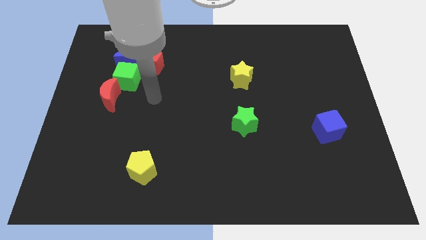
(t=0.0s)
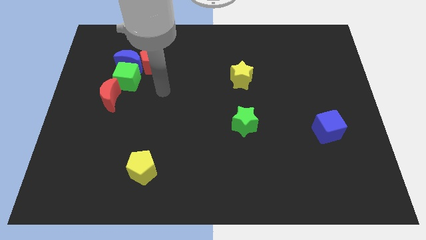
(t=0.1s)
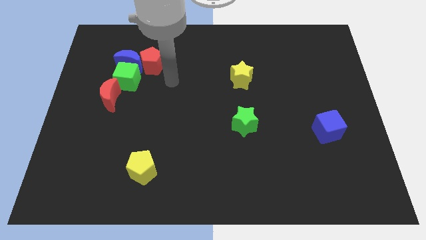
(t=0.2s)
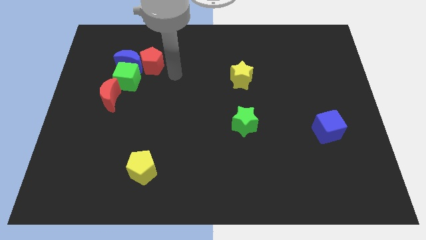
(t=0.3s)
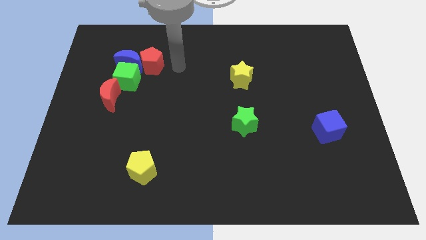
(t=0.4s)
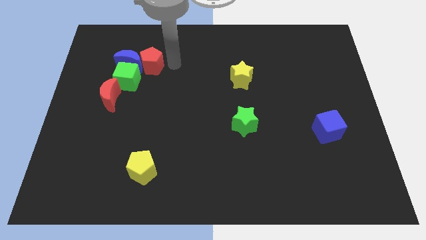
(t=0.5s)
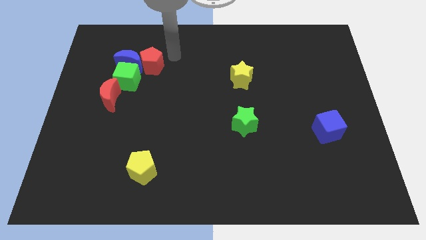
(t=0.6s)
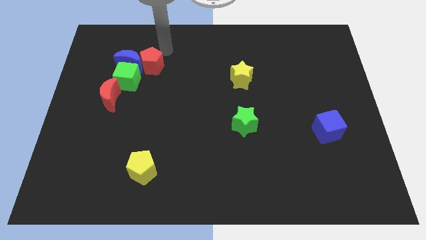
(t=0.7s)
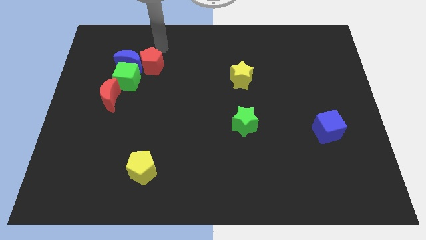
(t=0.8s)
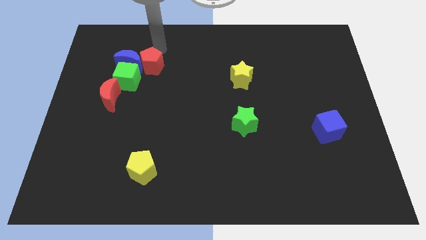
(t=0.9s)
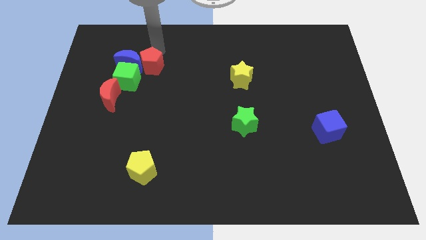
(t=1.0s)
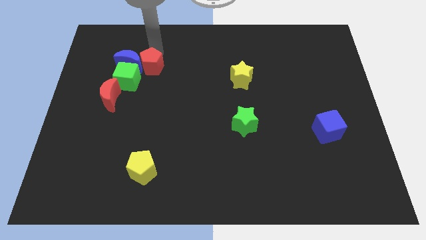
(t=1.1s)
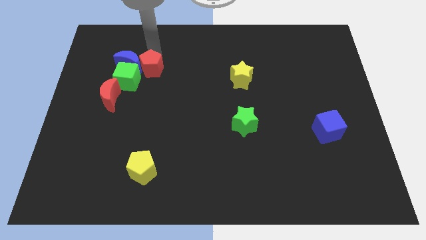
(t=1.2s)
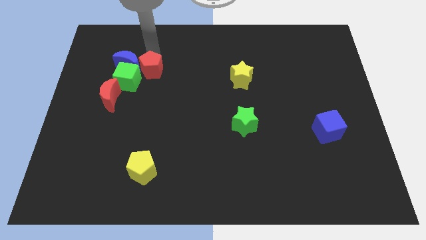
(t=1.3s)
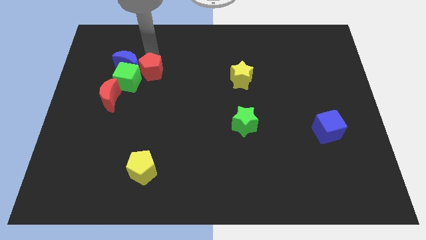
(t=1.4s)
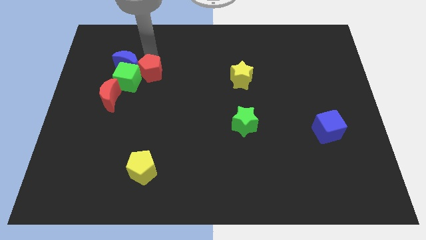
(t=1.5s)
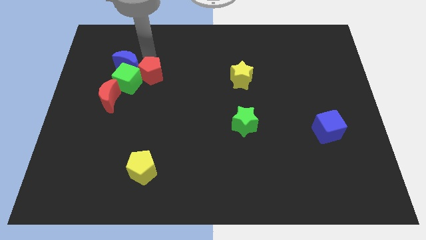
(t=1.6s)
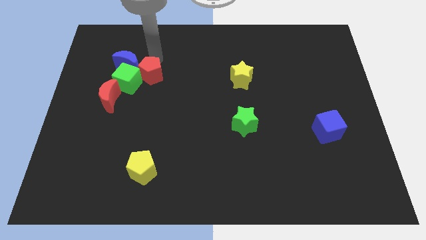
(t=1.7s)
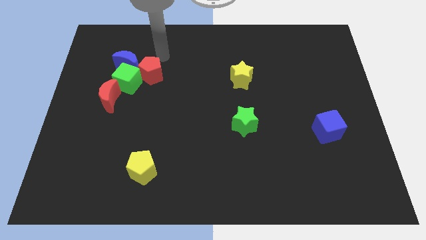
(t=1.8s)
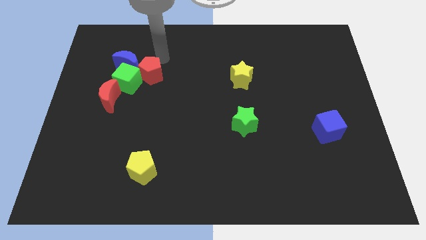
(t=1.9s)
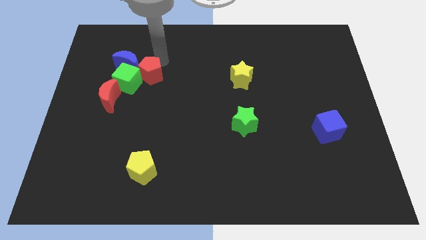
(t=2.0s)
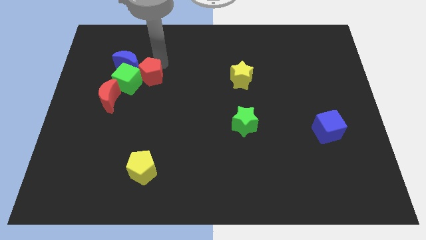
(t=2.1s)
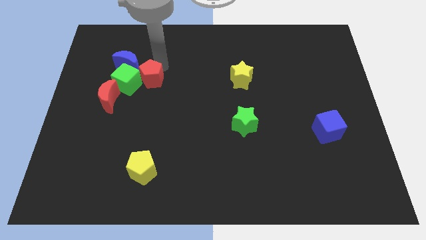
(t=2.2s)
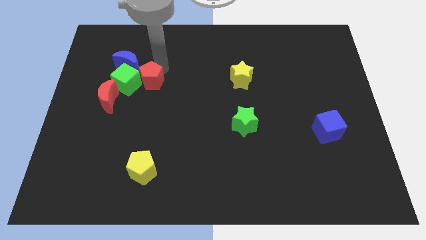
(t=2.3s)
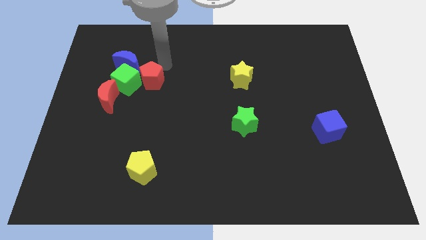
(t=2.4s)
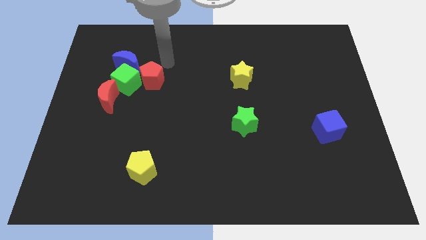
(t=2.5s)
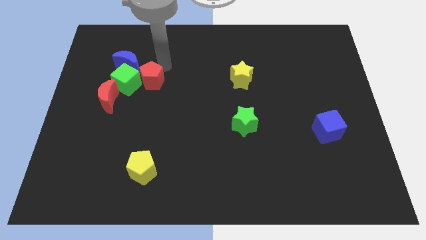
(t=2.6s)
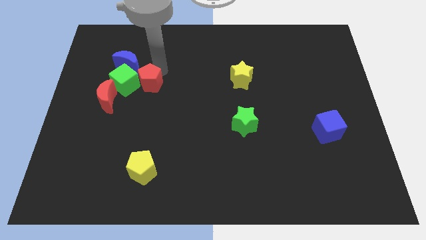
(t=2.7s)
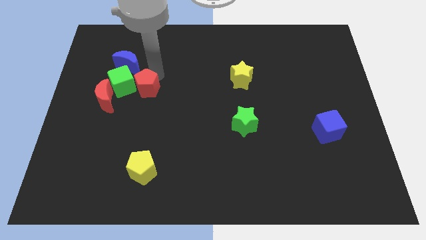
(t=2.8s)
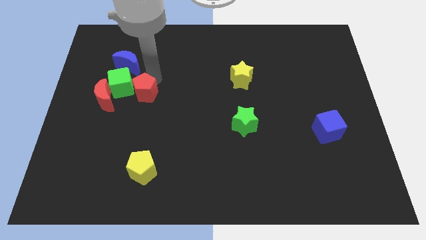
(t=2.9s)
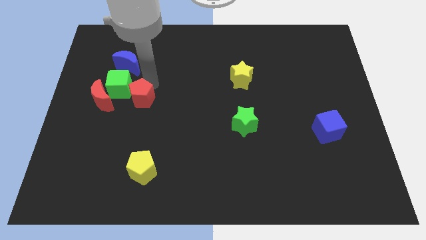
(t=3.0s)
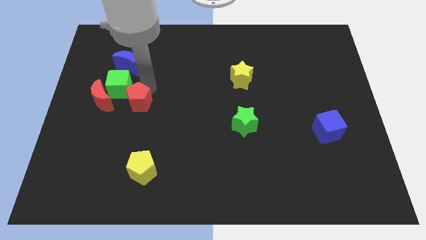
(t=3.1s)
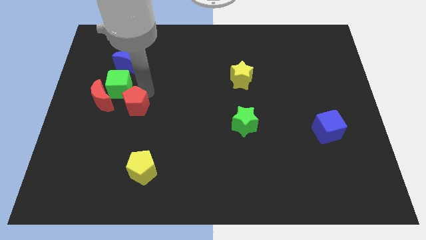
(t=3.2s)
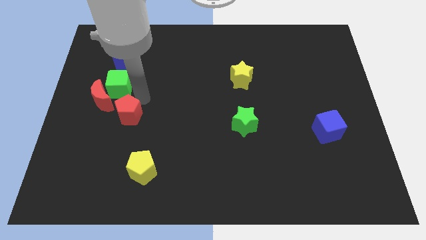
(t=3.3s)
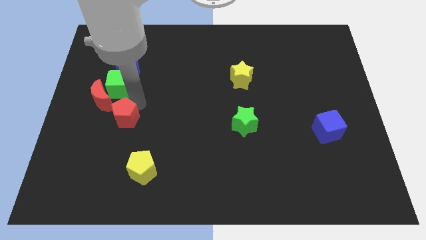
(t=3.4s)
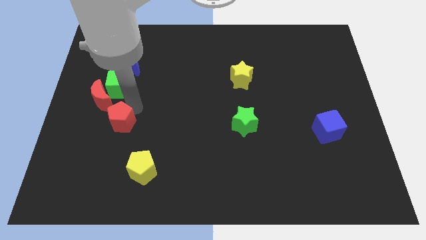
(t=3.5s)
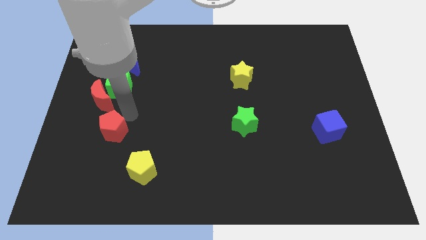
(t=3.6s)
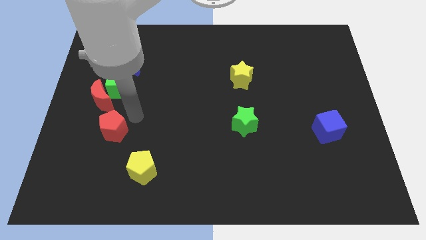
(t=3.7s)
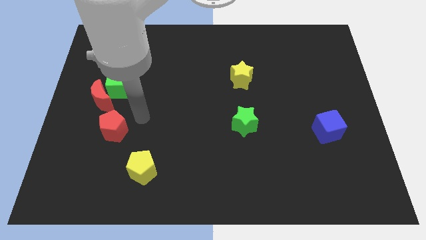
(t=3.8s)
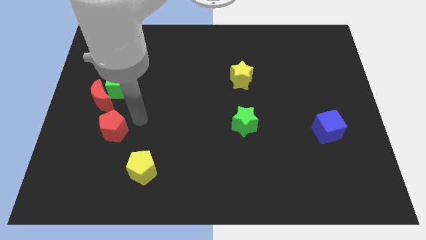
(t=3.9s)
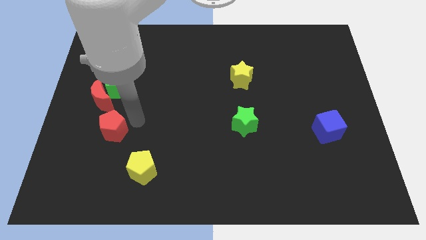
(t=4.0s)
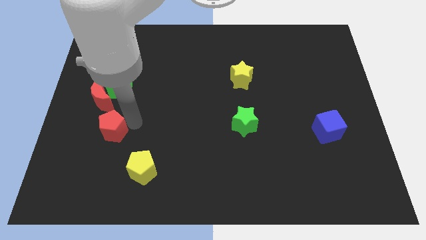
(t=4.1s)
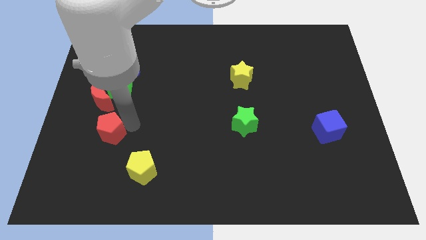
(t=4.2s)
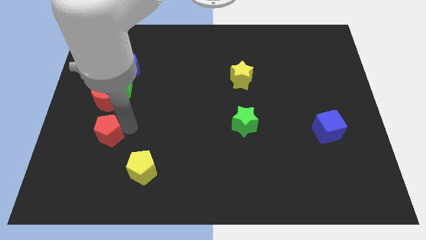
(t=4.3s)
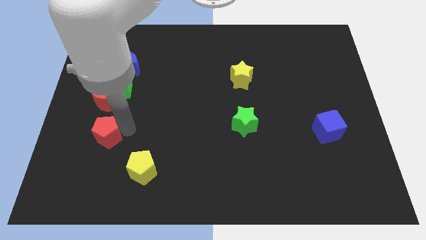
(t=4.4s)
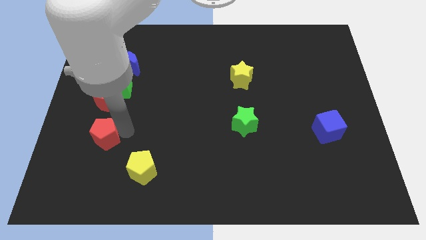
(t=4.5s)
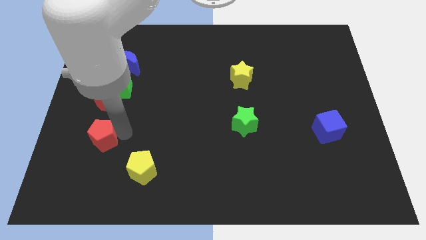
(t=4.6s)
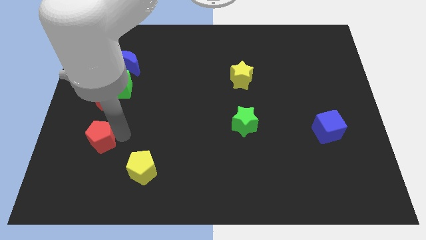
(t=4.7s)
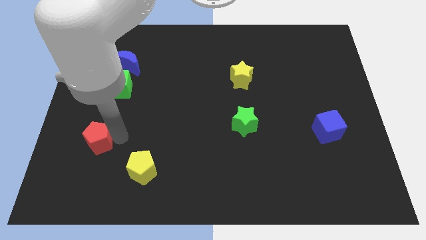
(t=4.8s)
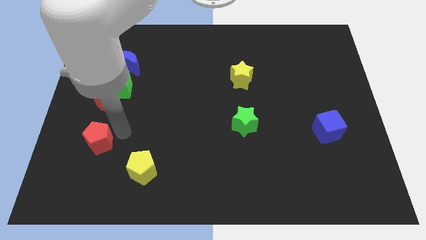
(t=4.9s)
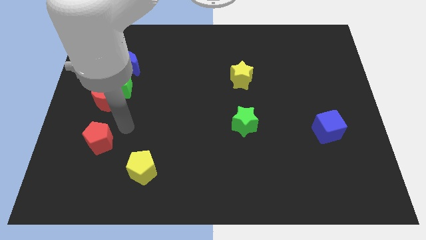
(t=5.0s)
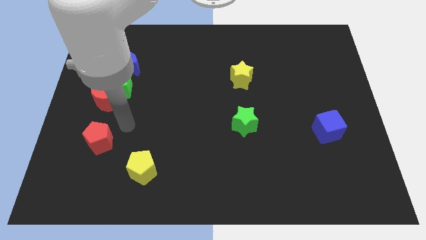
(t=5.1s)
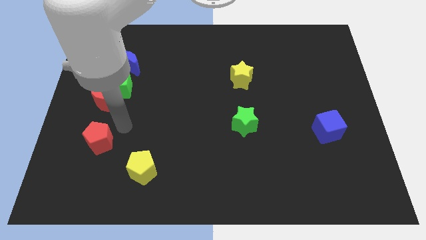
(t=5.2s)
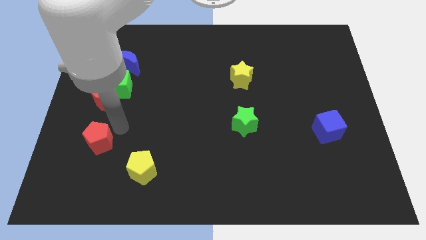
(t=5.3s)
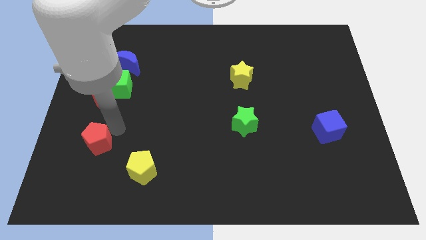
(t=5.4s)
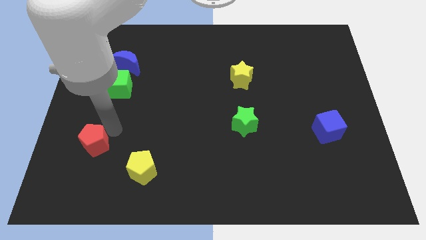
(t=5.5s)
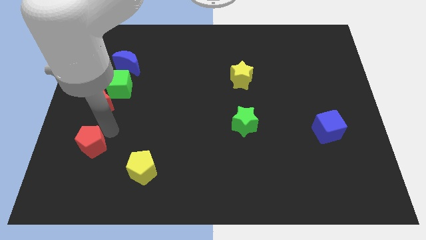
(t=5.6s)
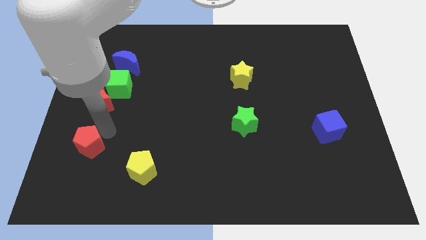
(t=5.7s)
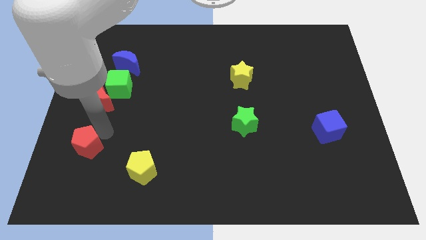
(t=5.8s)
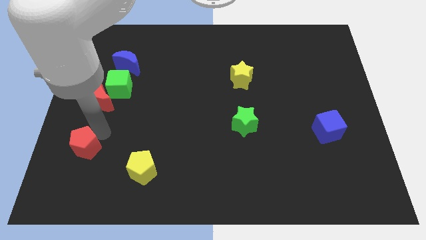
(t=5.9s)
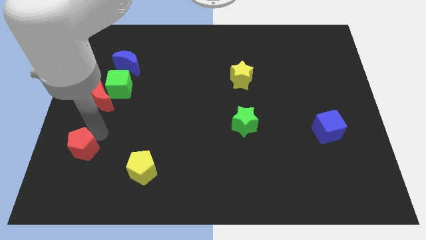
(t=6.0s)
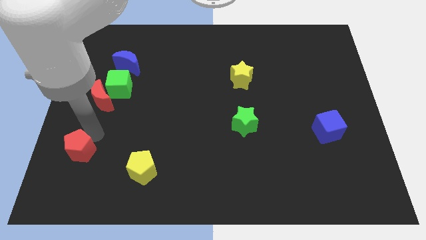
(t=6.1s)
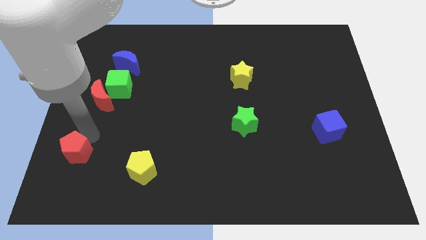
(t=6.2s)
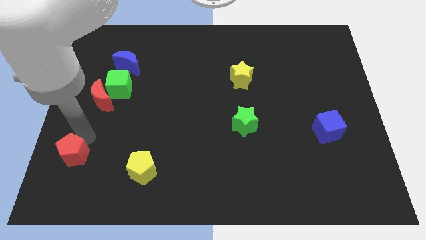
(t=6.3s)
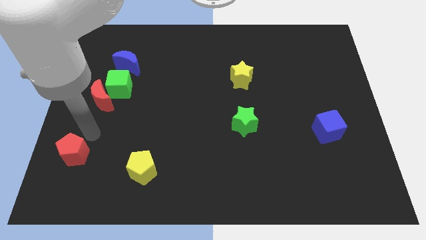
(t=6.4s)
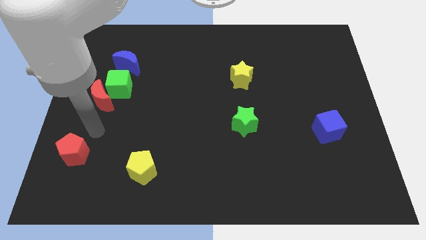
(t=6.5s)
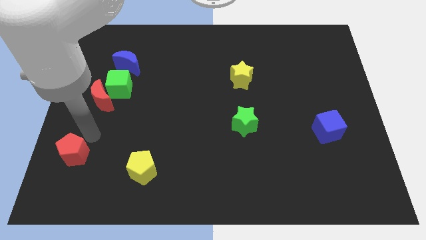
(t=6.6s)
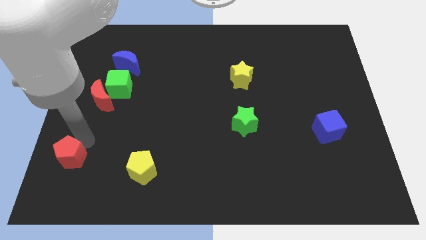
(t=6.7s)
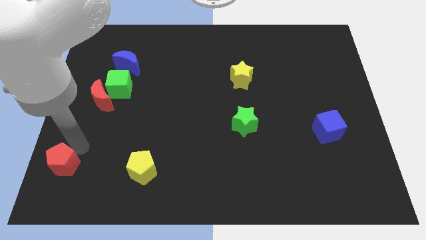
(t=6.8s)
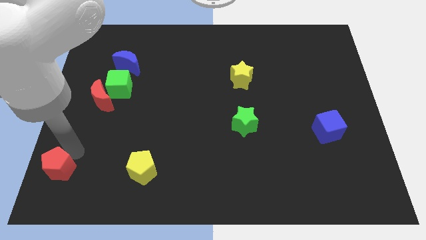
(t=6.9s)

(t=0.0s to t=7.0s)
push the red pentagon to the lower left corner

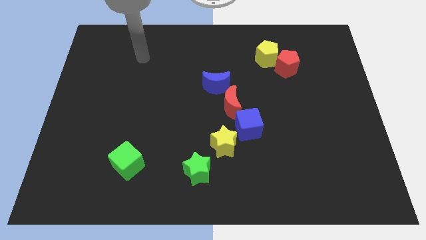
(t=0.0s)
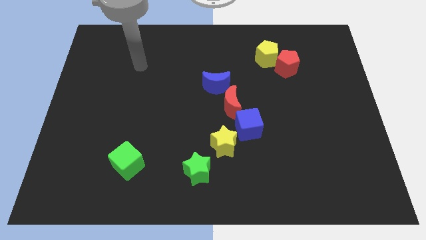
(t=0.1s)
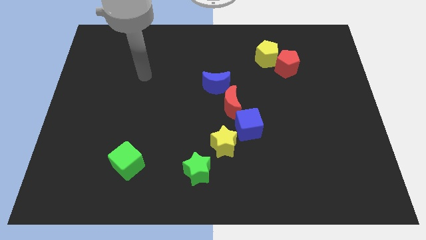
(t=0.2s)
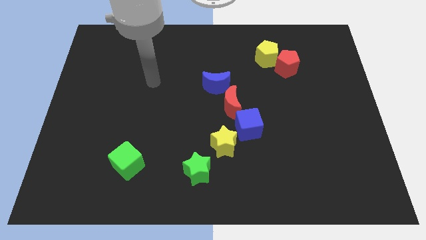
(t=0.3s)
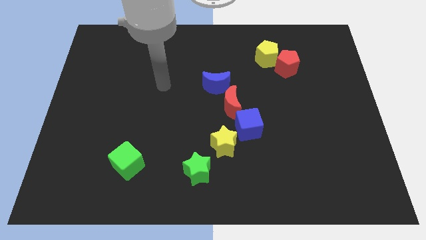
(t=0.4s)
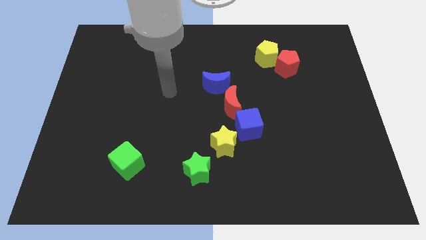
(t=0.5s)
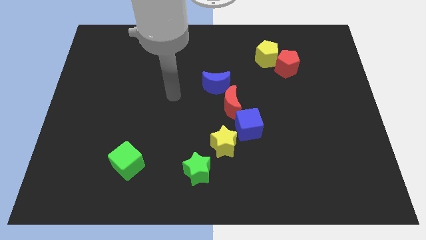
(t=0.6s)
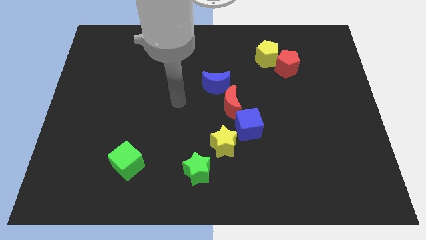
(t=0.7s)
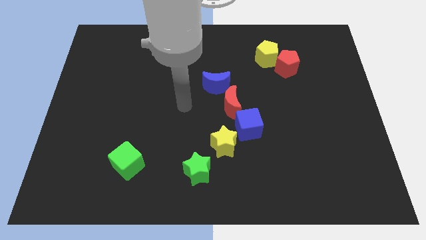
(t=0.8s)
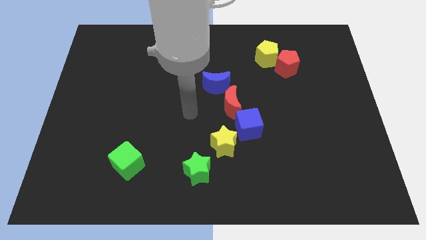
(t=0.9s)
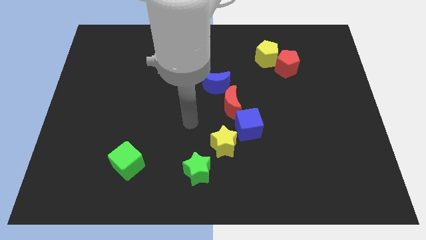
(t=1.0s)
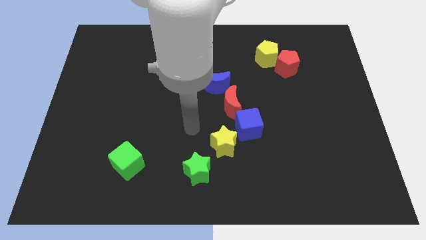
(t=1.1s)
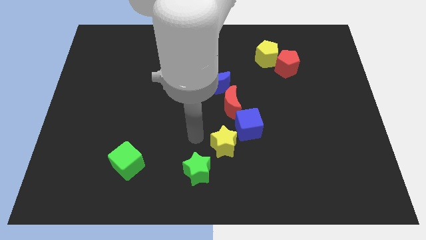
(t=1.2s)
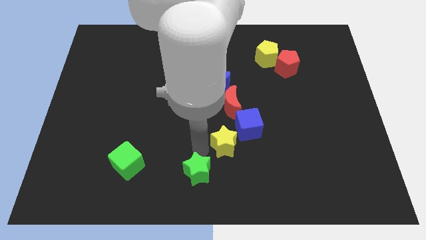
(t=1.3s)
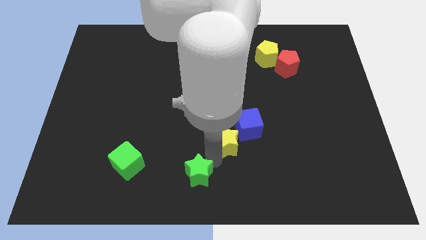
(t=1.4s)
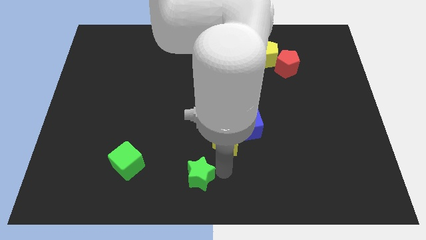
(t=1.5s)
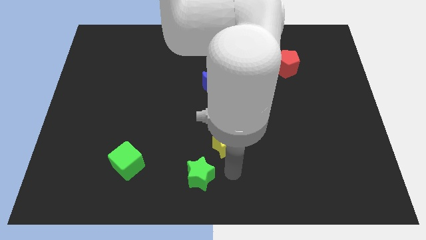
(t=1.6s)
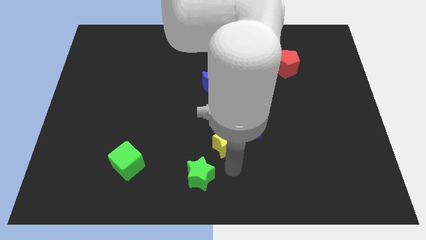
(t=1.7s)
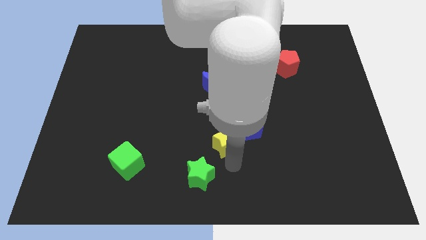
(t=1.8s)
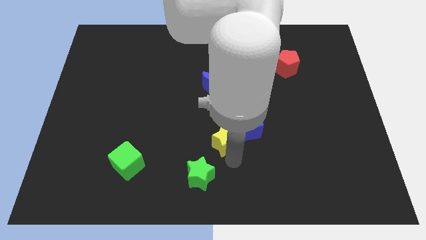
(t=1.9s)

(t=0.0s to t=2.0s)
move the yellow star to the center of the board
